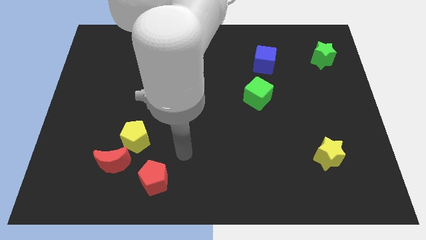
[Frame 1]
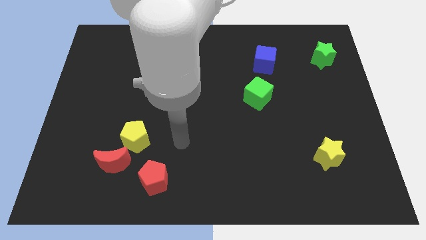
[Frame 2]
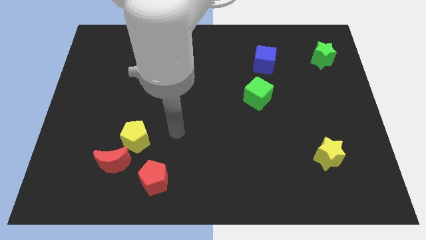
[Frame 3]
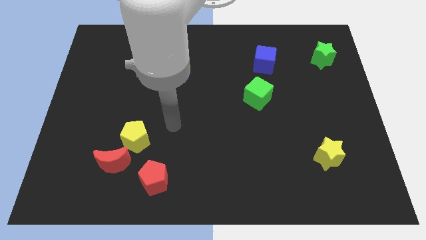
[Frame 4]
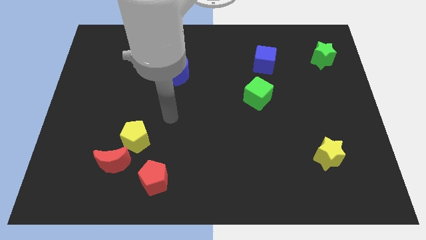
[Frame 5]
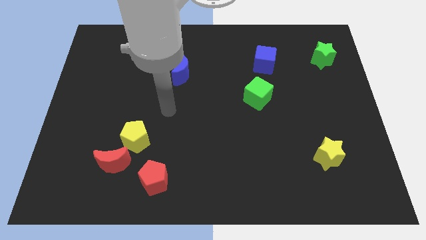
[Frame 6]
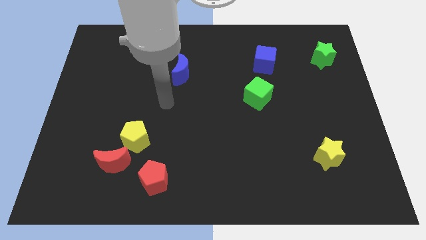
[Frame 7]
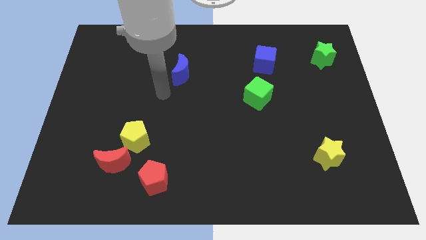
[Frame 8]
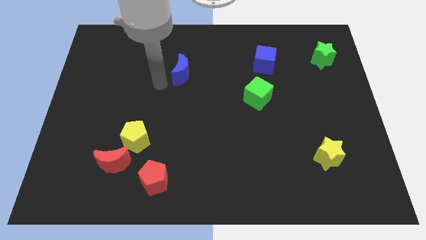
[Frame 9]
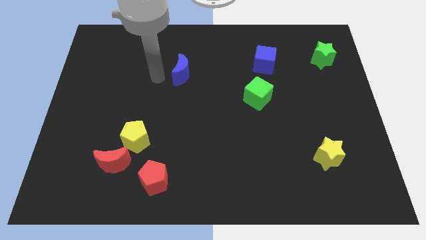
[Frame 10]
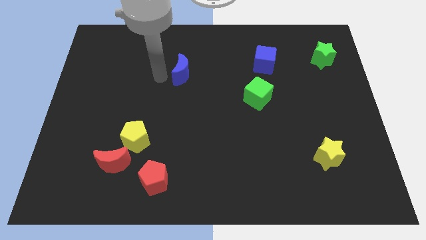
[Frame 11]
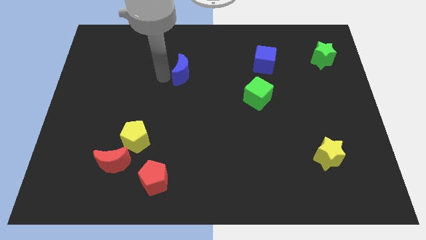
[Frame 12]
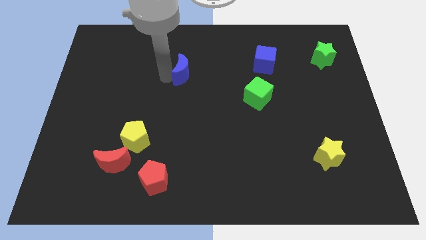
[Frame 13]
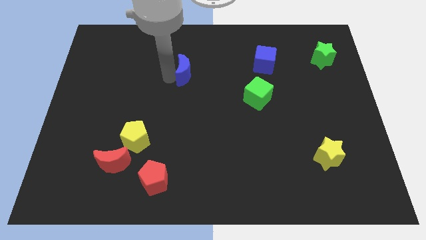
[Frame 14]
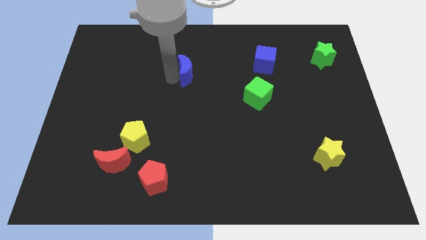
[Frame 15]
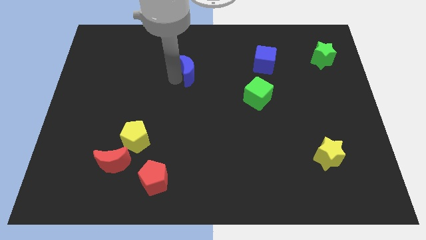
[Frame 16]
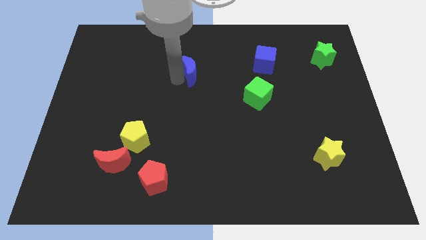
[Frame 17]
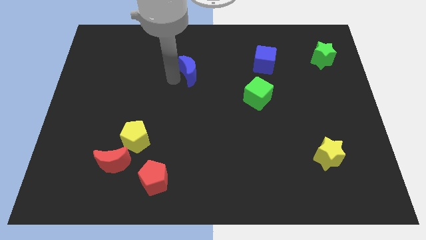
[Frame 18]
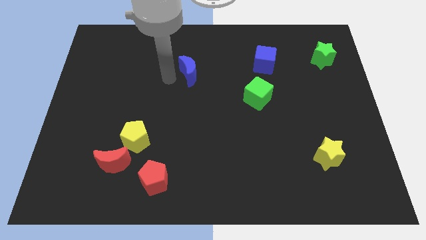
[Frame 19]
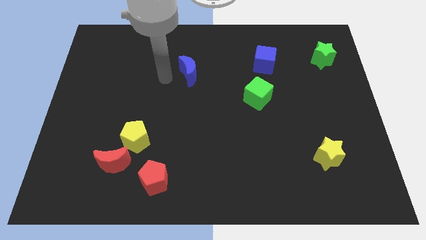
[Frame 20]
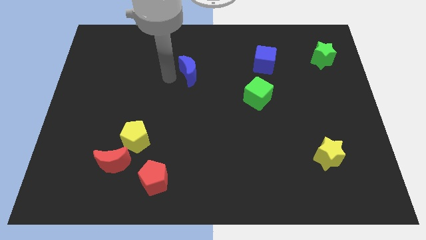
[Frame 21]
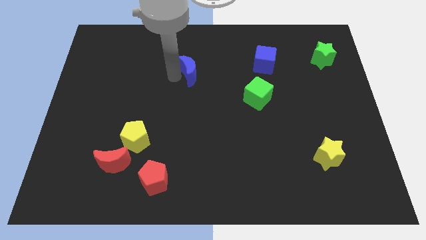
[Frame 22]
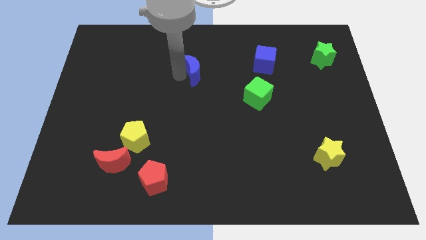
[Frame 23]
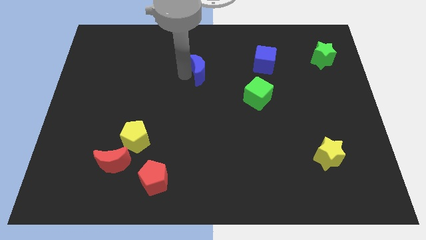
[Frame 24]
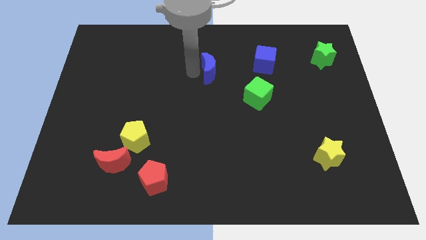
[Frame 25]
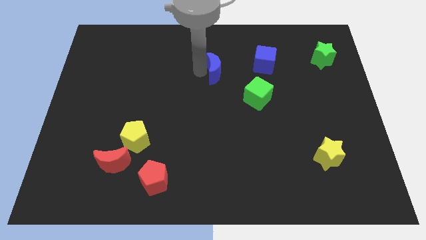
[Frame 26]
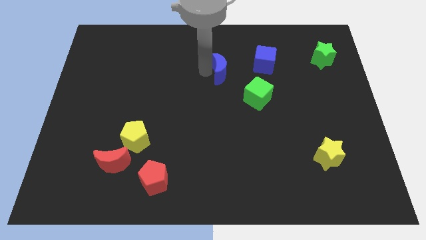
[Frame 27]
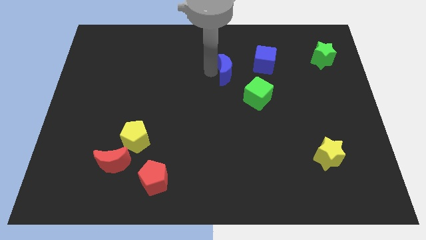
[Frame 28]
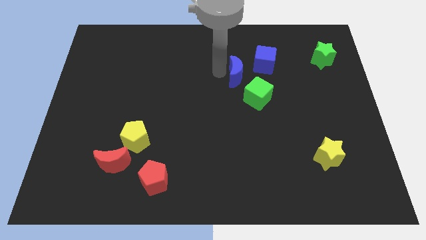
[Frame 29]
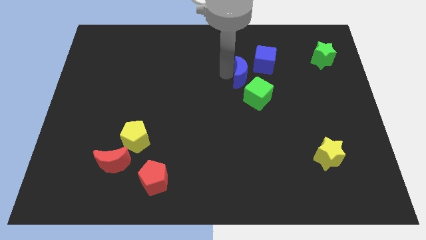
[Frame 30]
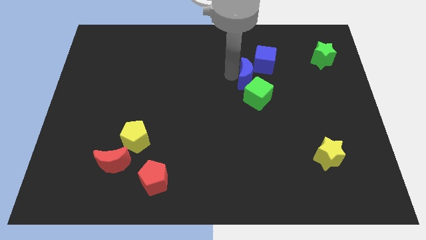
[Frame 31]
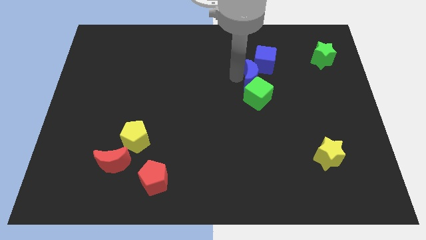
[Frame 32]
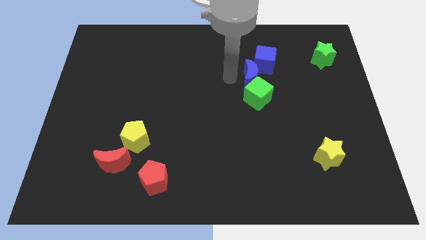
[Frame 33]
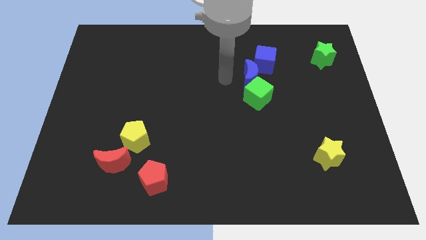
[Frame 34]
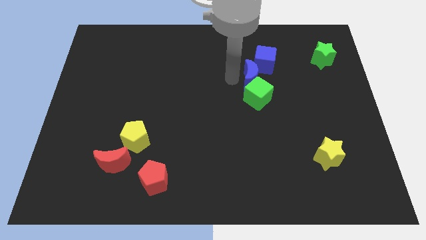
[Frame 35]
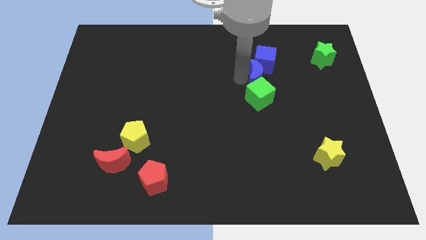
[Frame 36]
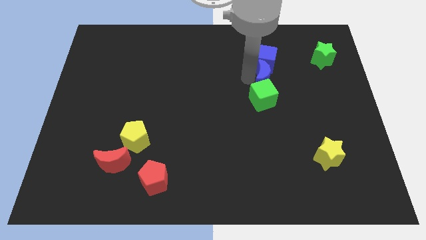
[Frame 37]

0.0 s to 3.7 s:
move the blue moon right

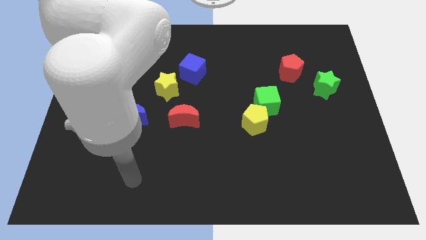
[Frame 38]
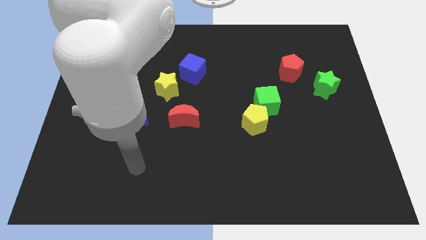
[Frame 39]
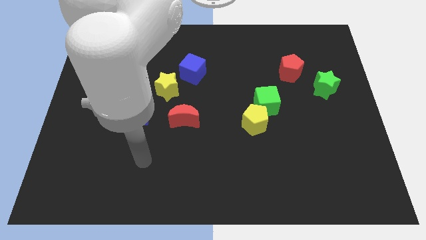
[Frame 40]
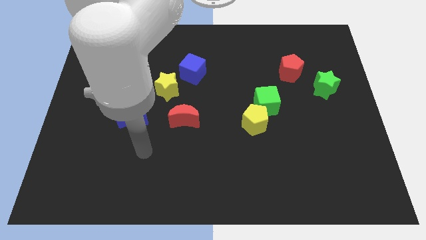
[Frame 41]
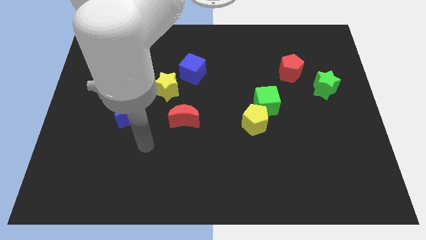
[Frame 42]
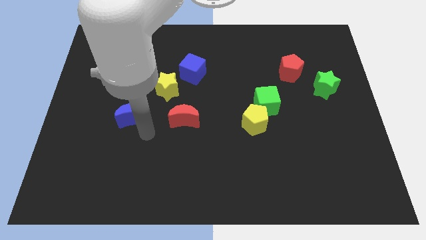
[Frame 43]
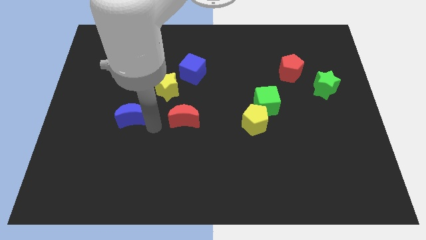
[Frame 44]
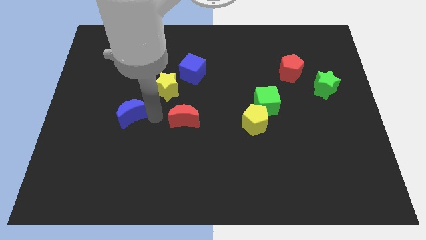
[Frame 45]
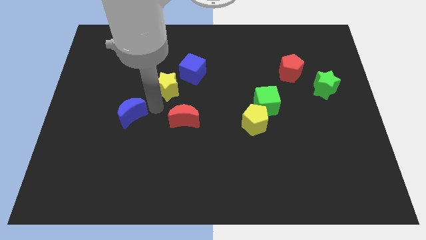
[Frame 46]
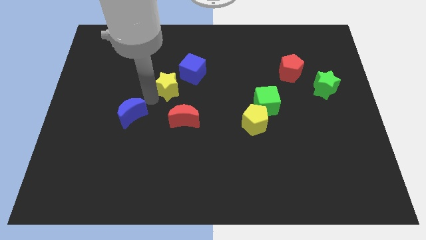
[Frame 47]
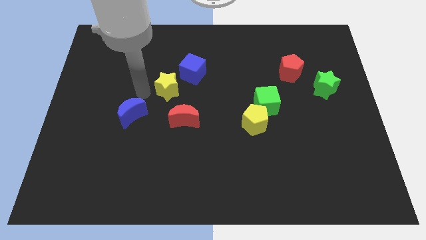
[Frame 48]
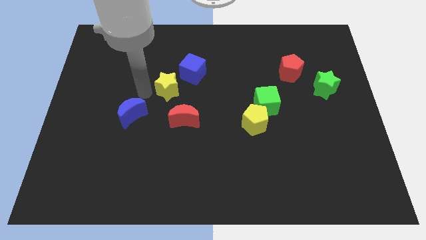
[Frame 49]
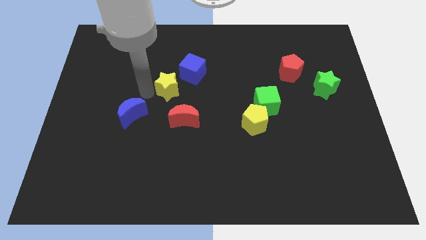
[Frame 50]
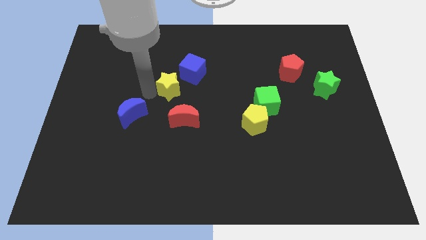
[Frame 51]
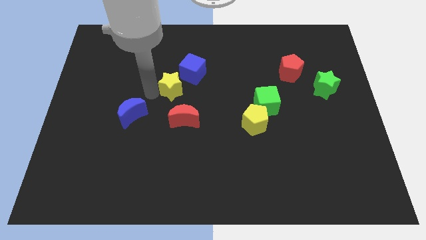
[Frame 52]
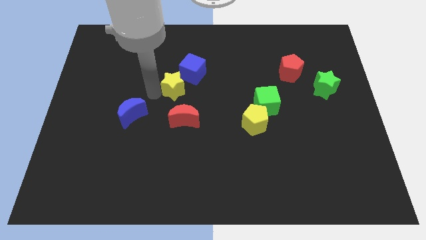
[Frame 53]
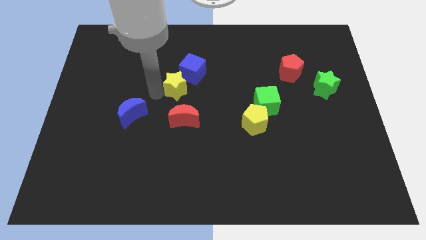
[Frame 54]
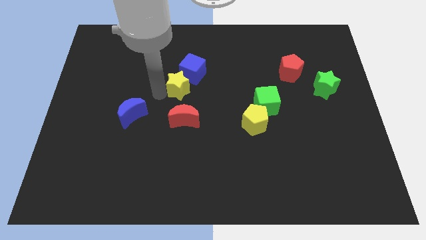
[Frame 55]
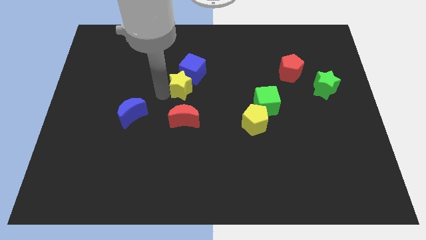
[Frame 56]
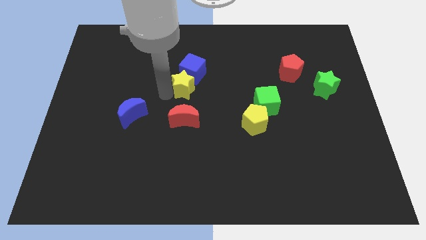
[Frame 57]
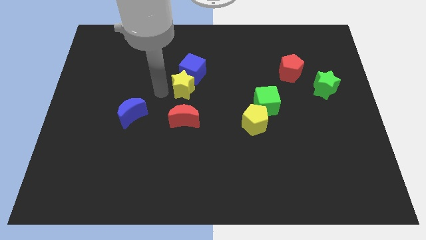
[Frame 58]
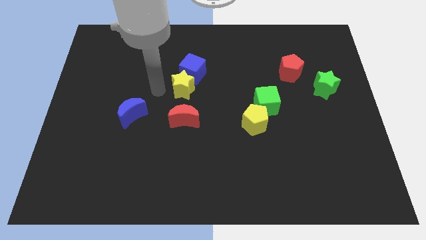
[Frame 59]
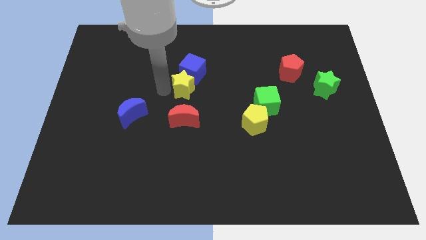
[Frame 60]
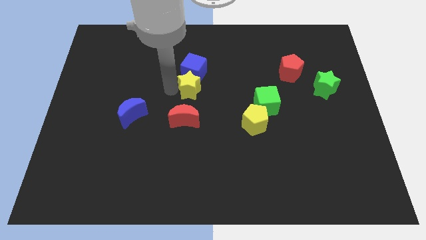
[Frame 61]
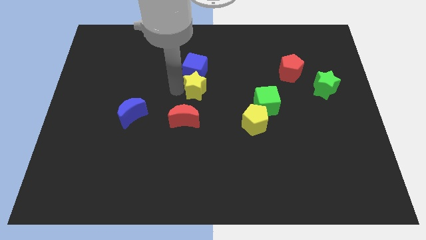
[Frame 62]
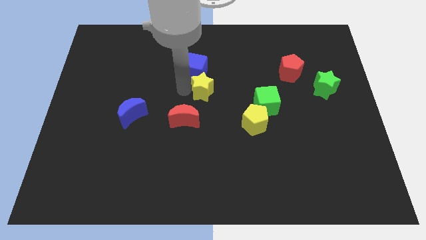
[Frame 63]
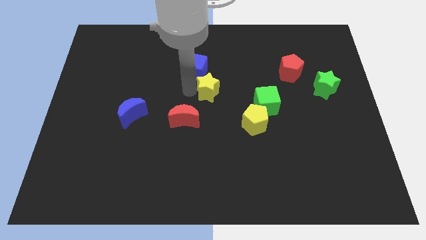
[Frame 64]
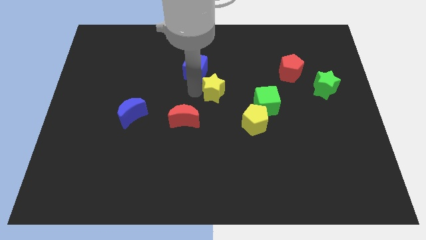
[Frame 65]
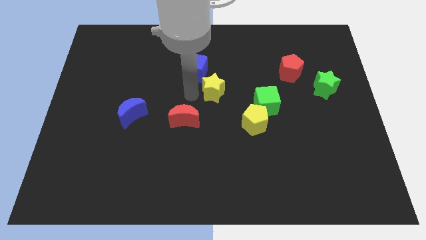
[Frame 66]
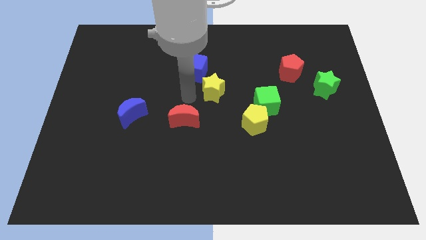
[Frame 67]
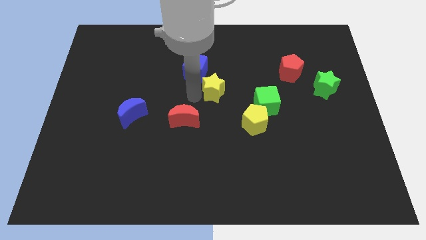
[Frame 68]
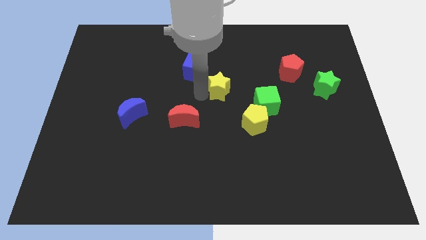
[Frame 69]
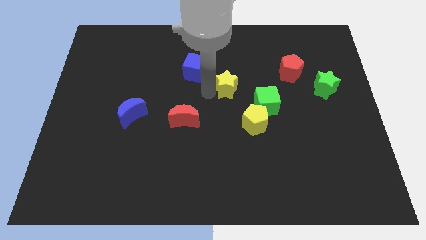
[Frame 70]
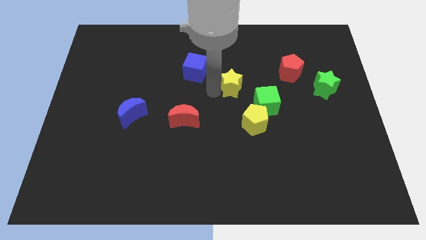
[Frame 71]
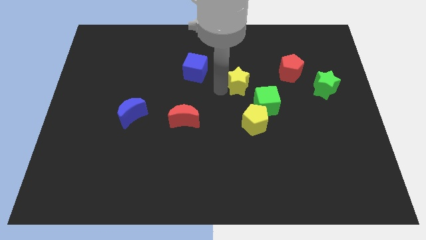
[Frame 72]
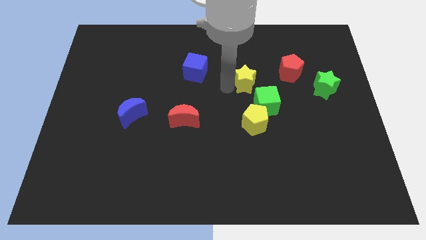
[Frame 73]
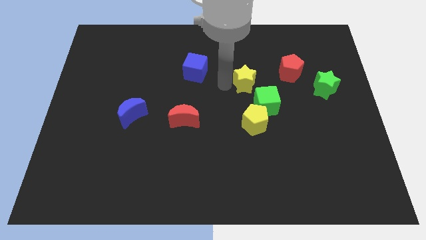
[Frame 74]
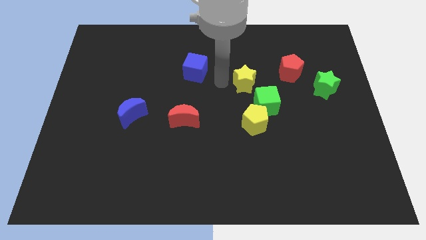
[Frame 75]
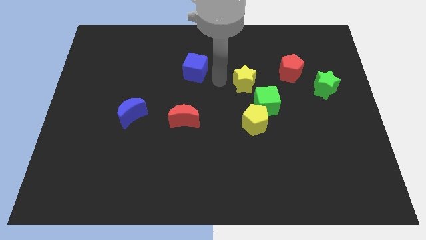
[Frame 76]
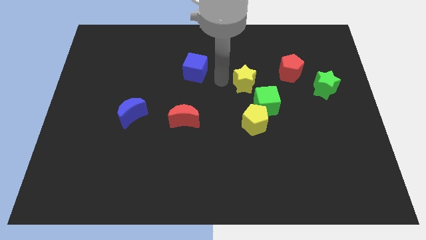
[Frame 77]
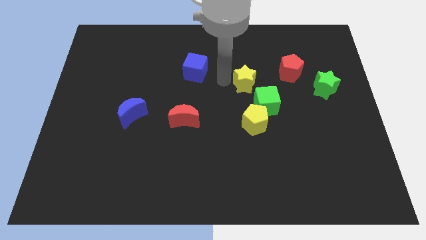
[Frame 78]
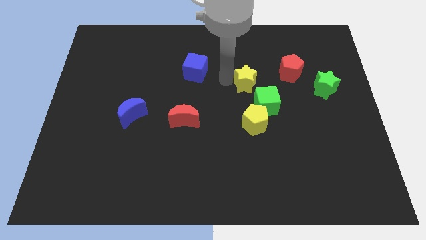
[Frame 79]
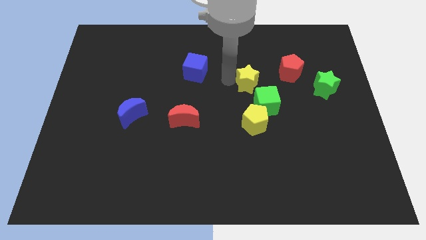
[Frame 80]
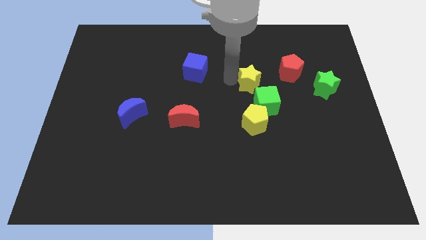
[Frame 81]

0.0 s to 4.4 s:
slide the yellow star to the right
